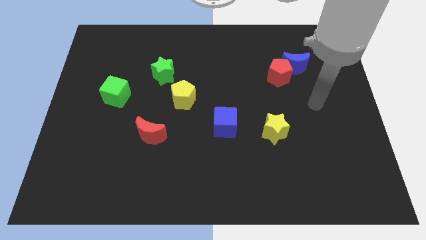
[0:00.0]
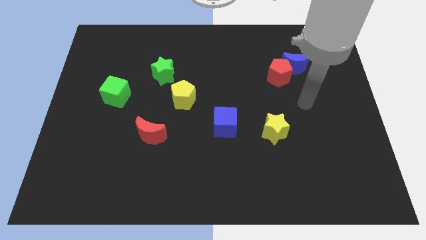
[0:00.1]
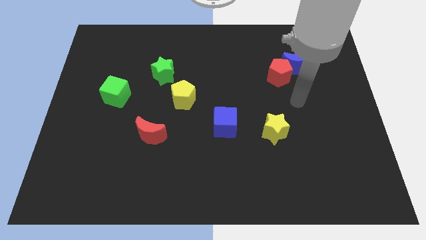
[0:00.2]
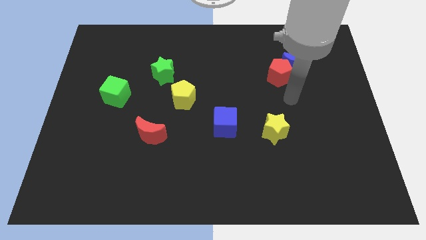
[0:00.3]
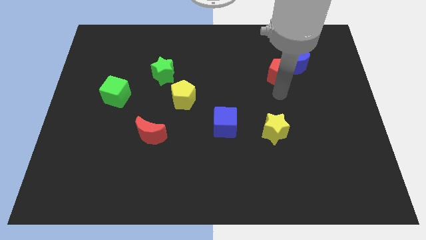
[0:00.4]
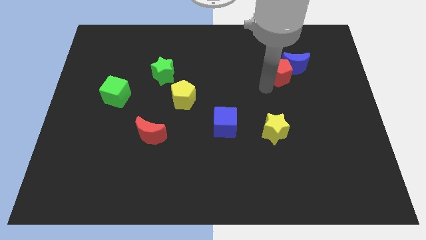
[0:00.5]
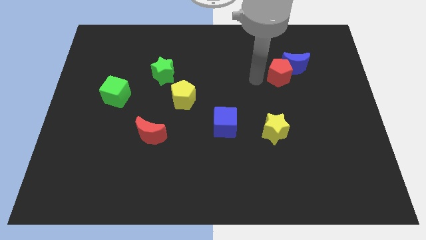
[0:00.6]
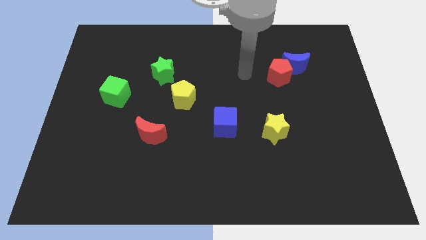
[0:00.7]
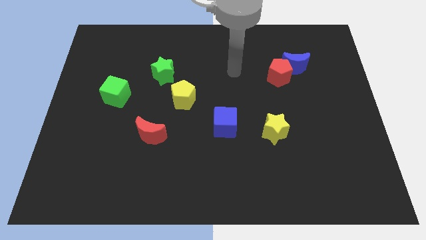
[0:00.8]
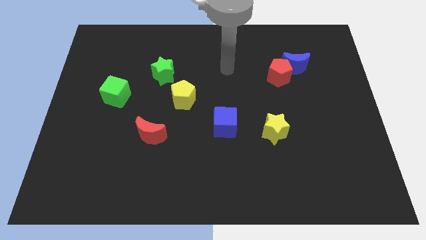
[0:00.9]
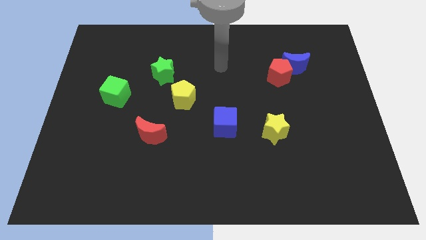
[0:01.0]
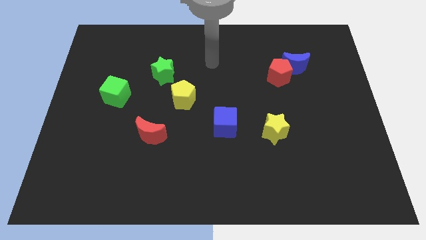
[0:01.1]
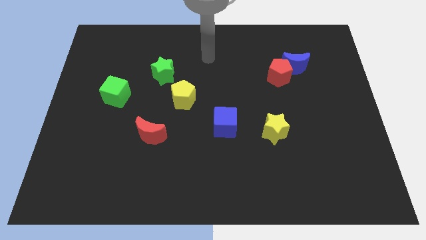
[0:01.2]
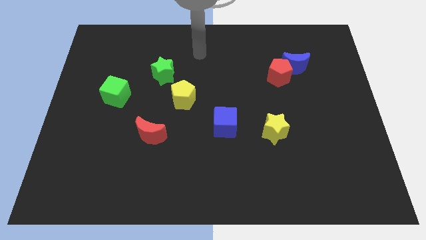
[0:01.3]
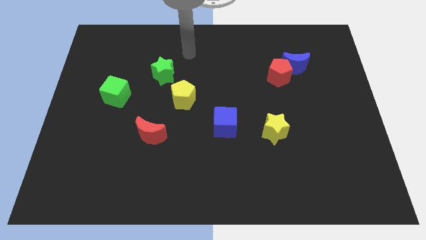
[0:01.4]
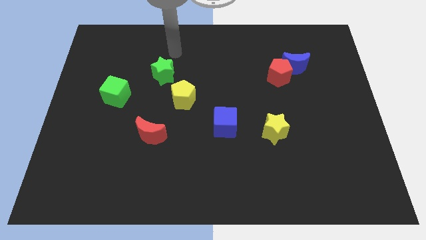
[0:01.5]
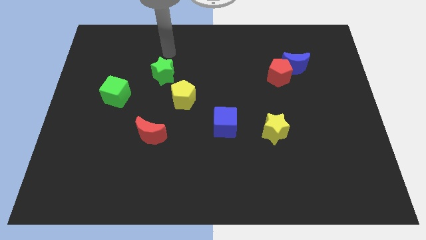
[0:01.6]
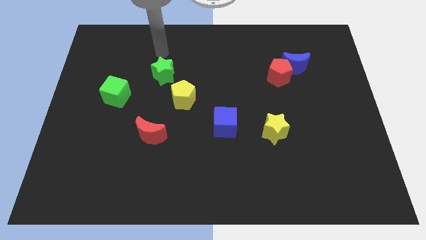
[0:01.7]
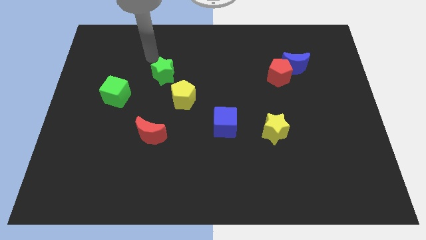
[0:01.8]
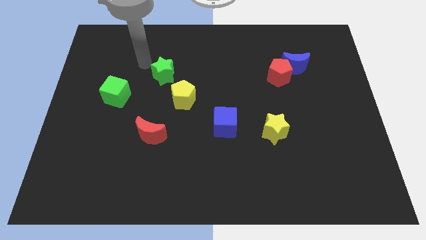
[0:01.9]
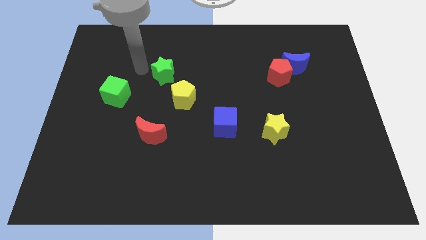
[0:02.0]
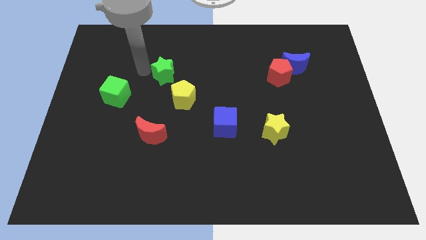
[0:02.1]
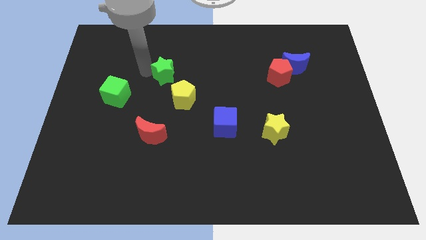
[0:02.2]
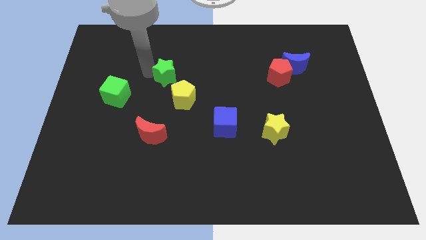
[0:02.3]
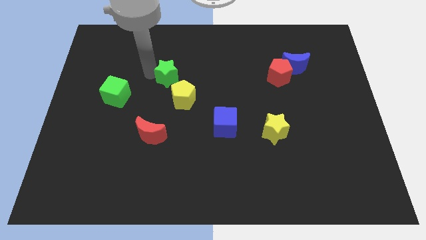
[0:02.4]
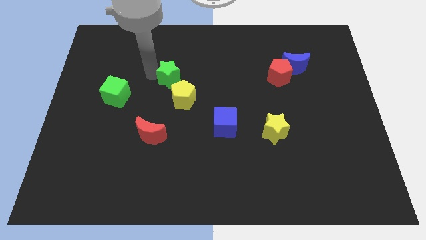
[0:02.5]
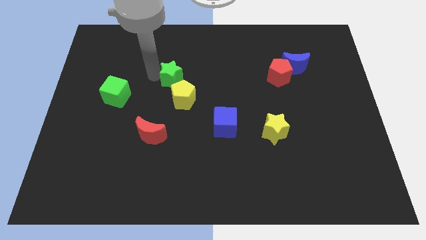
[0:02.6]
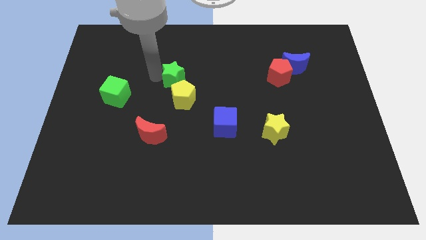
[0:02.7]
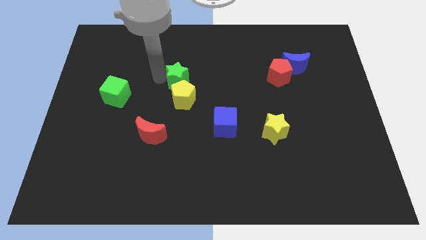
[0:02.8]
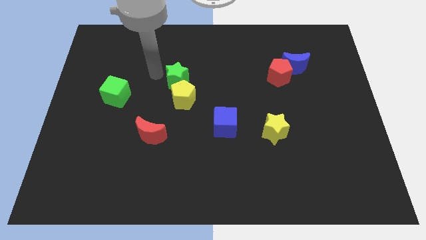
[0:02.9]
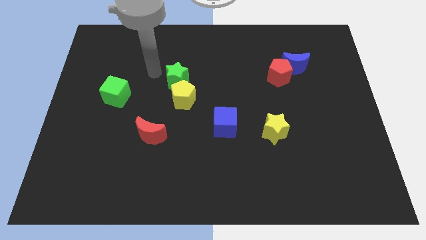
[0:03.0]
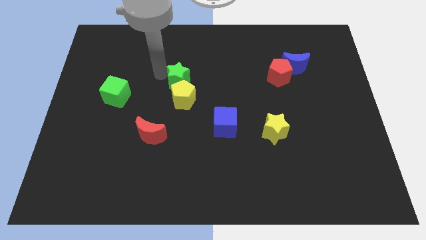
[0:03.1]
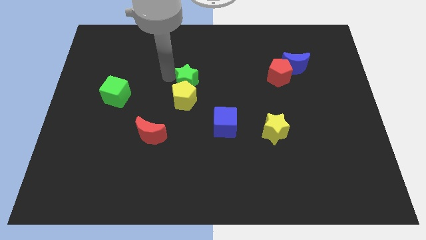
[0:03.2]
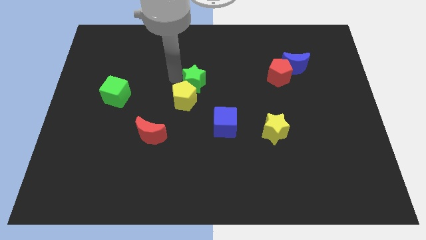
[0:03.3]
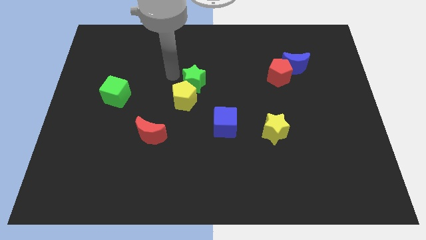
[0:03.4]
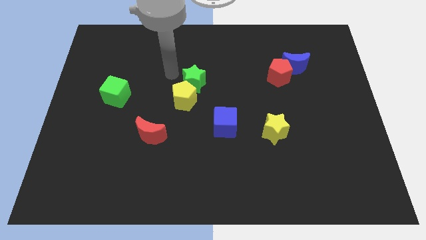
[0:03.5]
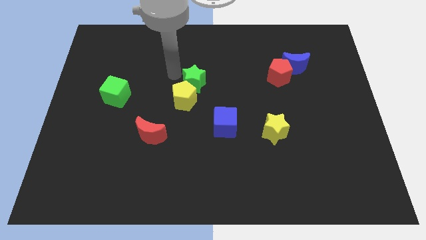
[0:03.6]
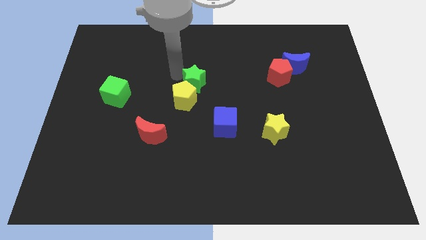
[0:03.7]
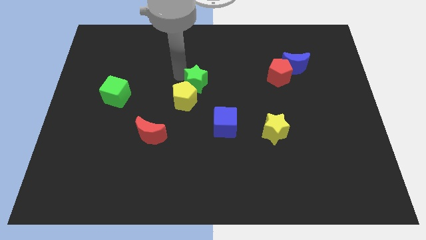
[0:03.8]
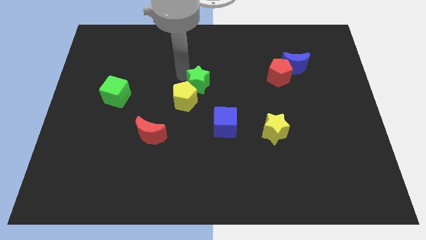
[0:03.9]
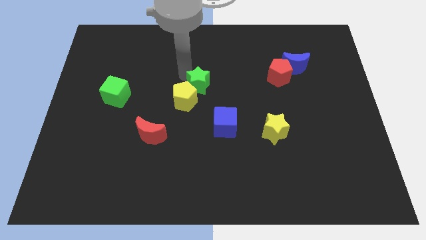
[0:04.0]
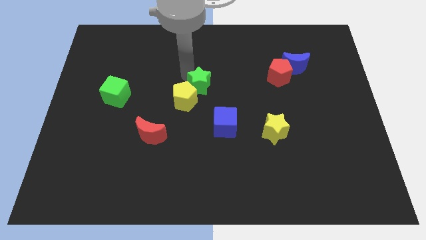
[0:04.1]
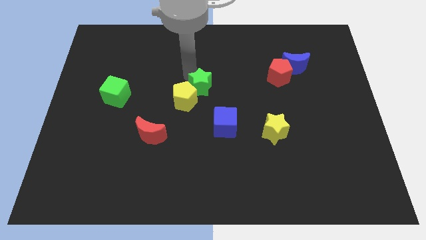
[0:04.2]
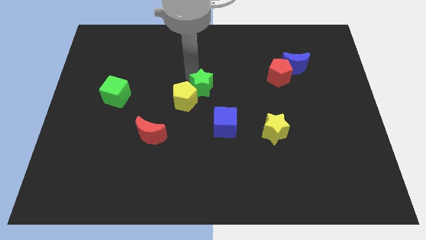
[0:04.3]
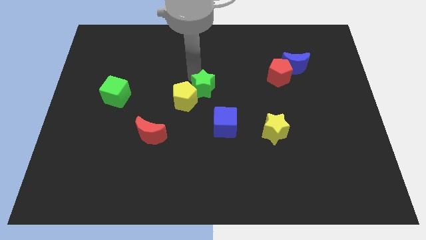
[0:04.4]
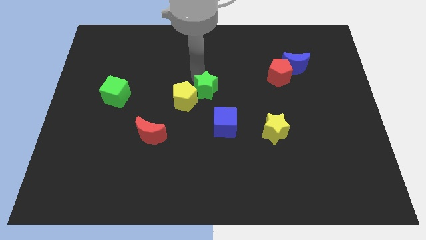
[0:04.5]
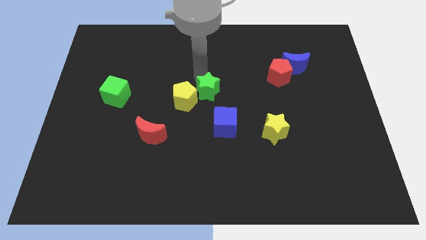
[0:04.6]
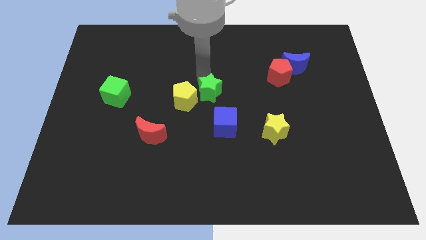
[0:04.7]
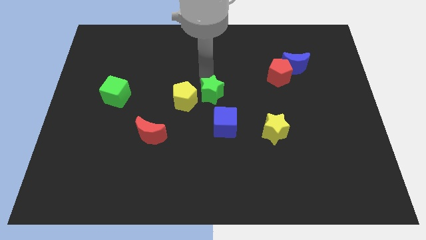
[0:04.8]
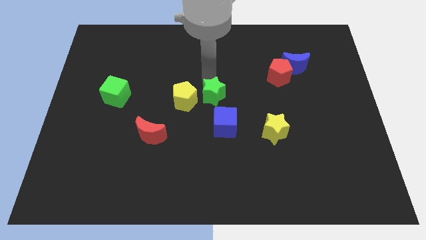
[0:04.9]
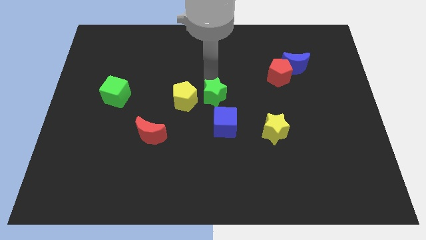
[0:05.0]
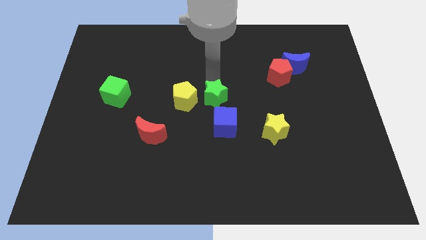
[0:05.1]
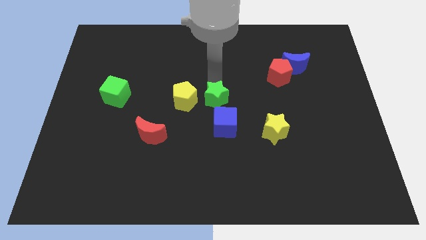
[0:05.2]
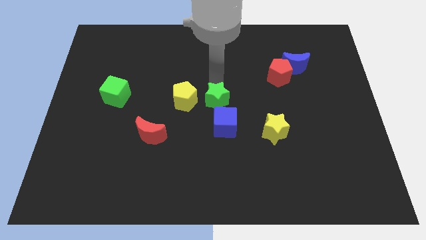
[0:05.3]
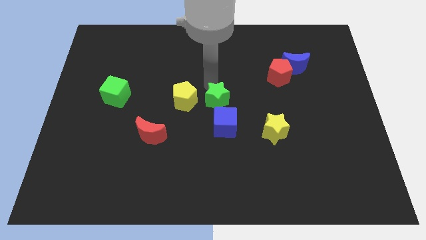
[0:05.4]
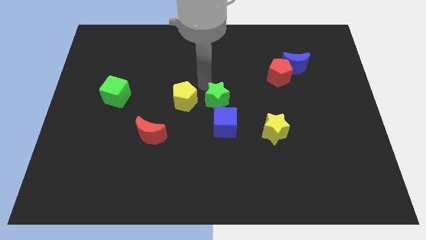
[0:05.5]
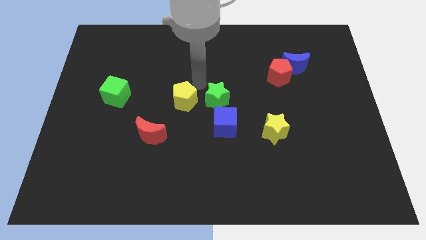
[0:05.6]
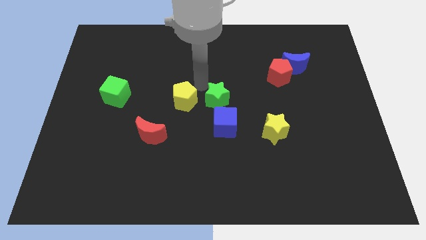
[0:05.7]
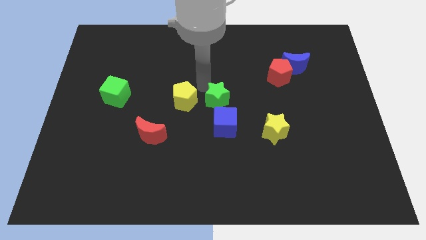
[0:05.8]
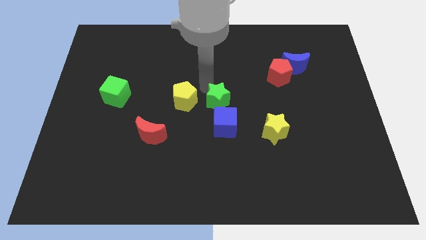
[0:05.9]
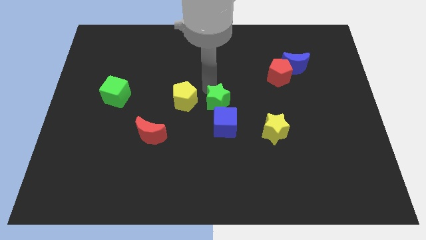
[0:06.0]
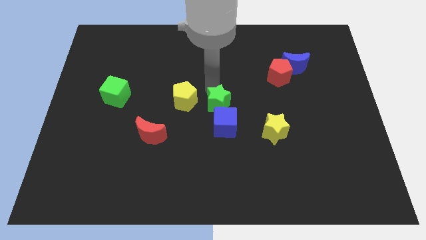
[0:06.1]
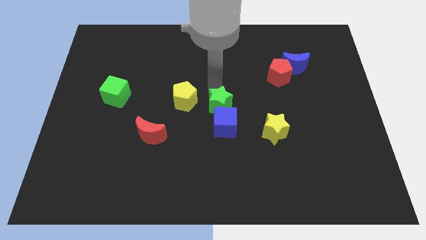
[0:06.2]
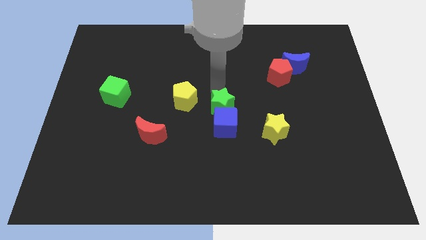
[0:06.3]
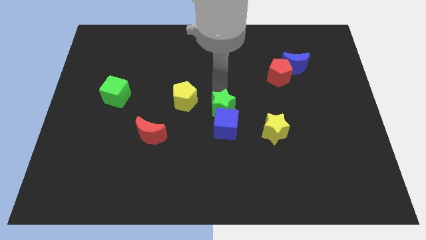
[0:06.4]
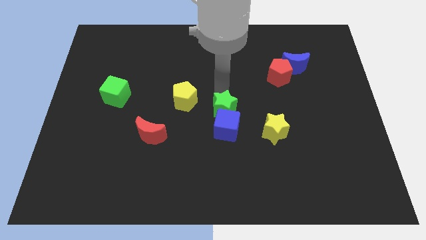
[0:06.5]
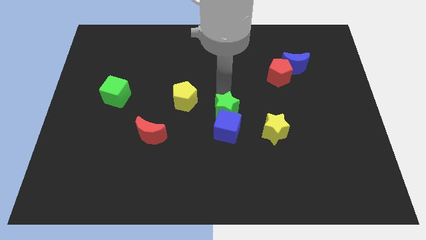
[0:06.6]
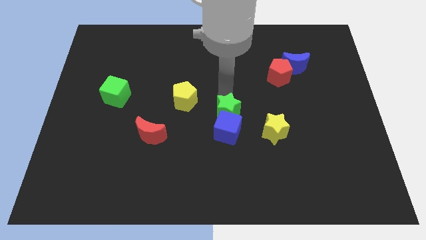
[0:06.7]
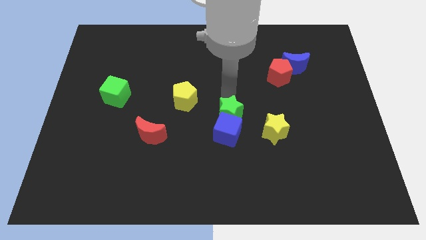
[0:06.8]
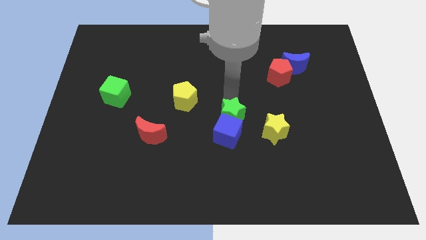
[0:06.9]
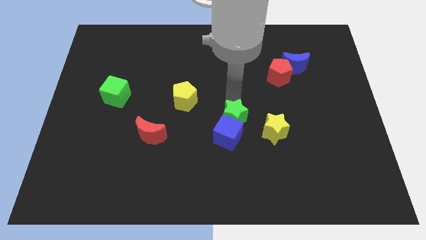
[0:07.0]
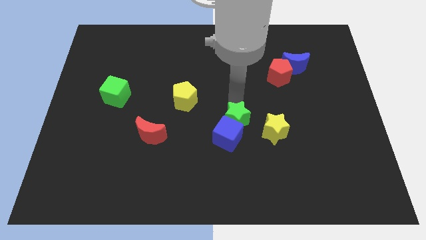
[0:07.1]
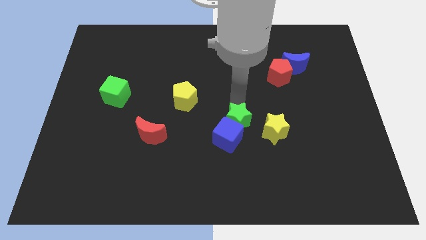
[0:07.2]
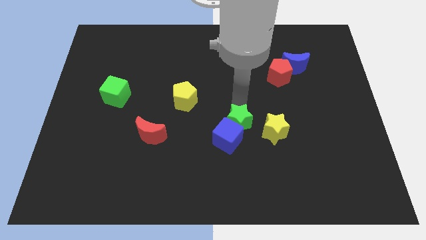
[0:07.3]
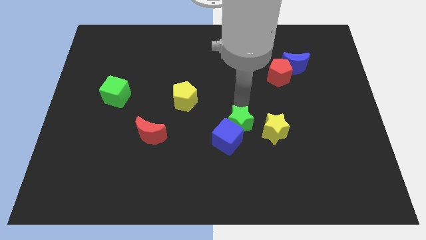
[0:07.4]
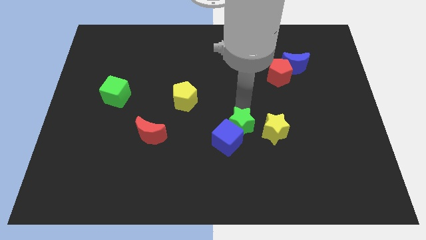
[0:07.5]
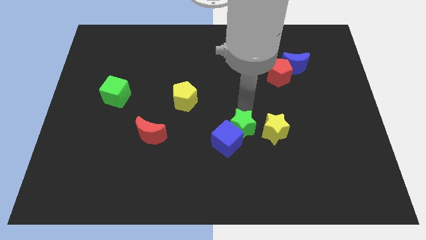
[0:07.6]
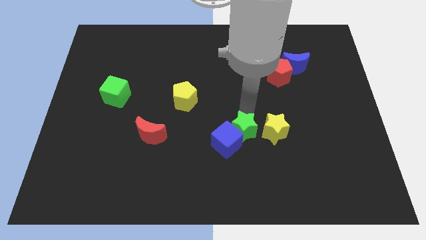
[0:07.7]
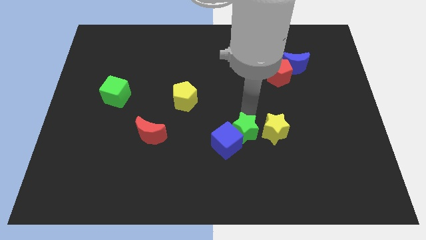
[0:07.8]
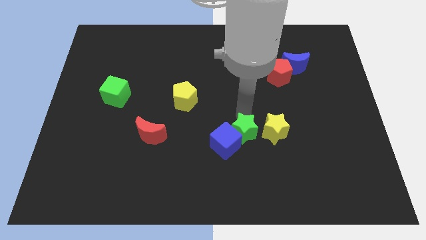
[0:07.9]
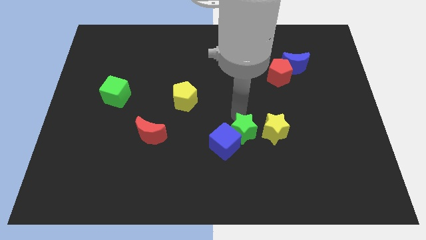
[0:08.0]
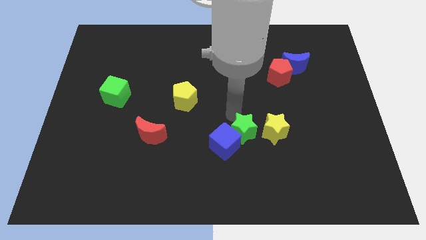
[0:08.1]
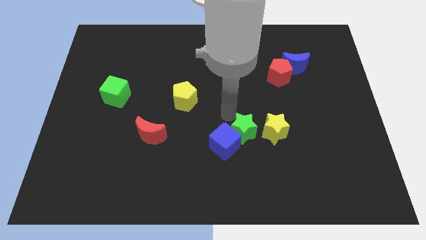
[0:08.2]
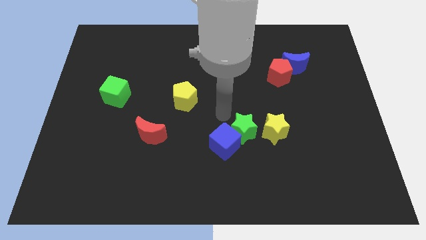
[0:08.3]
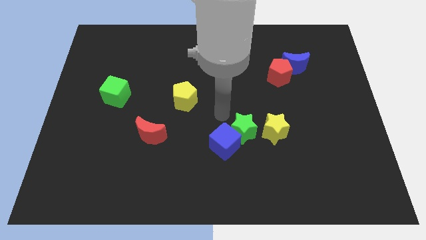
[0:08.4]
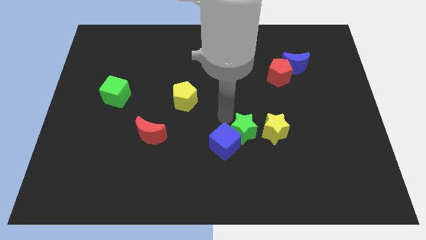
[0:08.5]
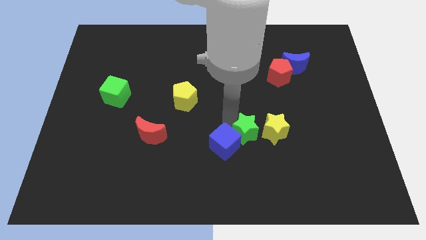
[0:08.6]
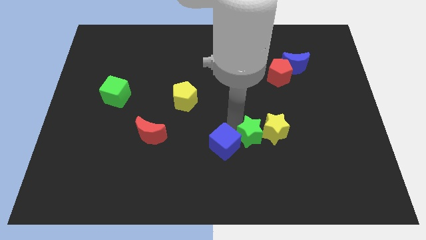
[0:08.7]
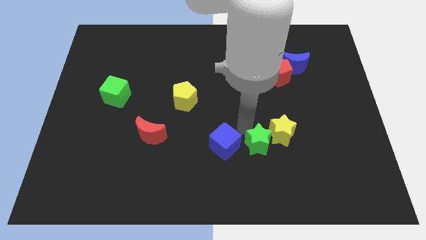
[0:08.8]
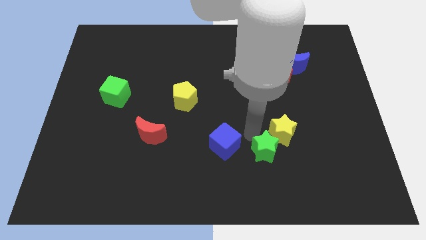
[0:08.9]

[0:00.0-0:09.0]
put the green star to the bottom of the yellow star
